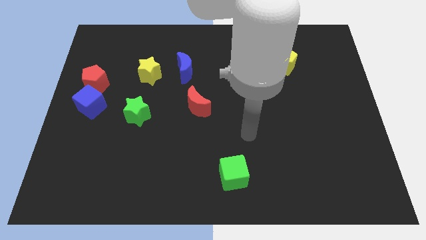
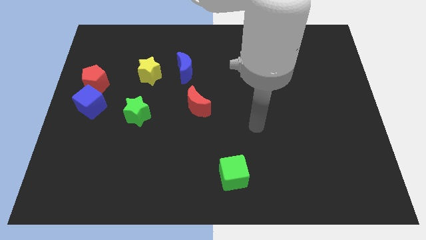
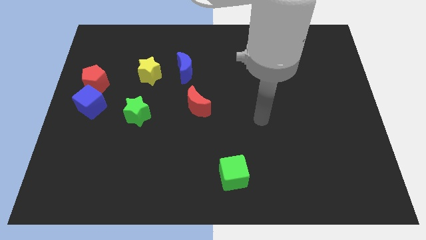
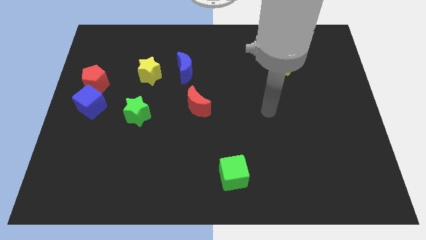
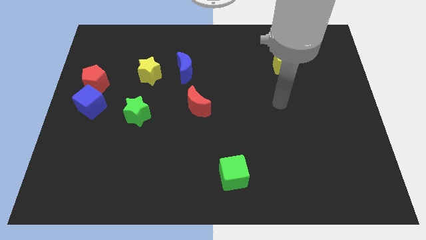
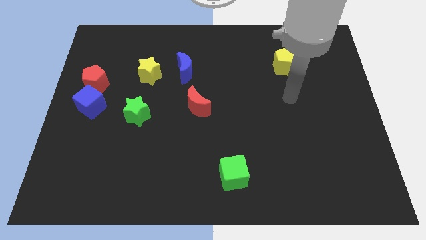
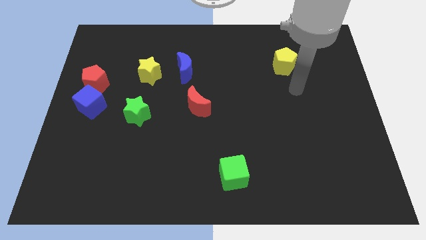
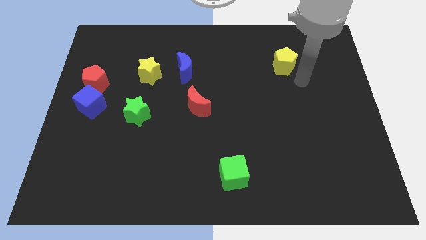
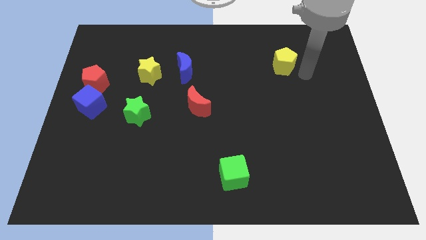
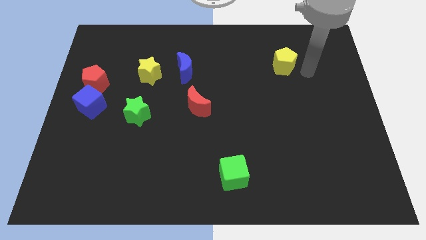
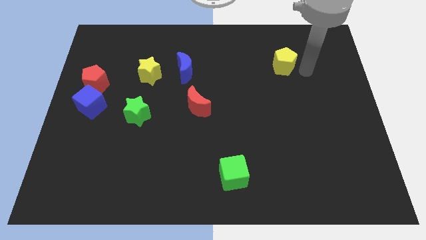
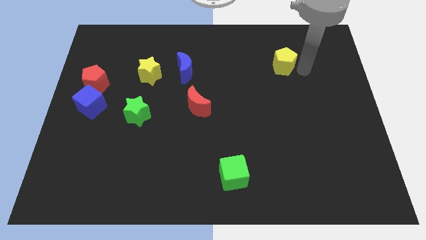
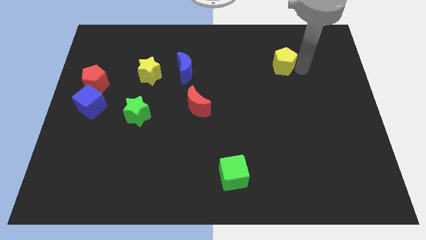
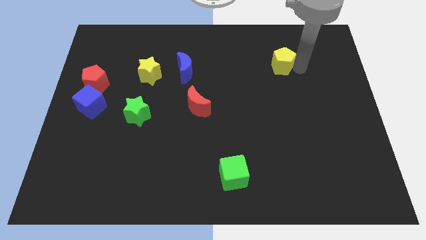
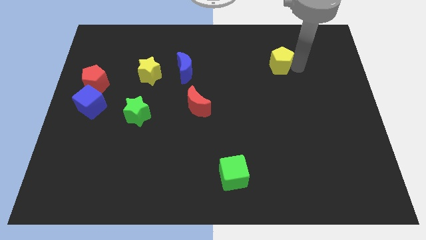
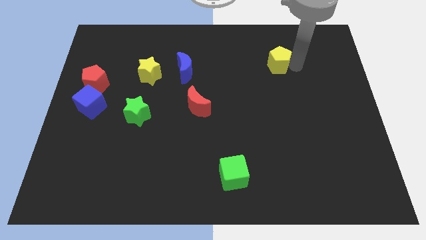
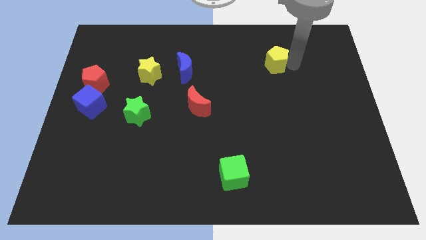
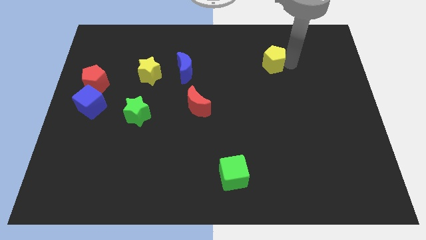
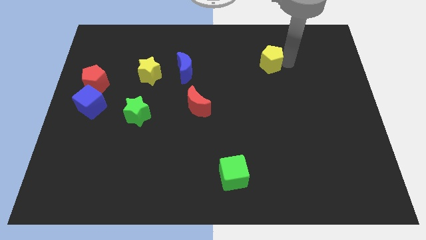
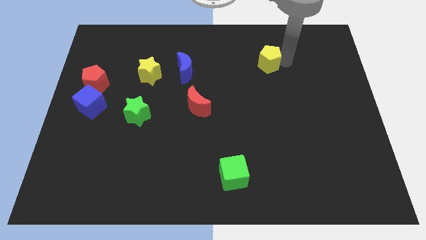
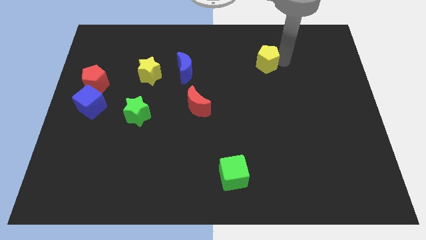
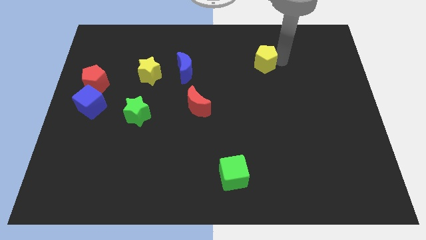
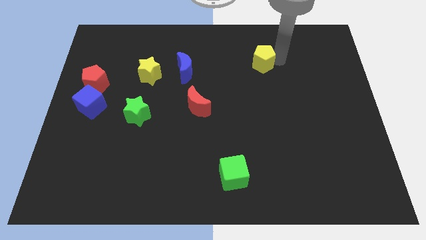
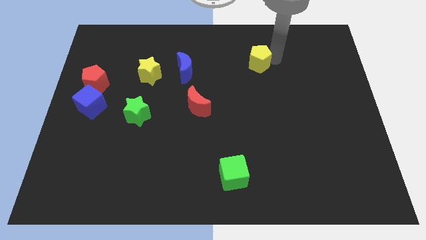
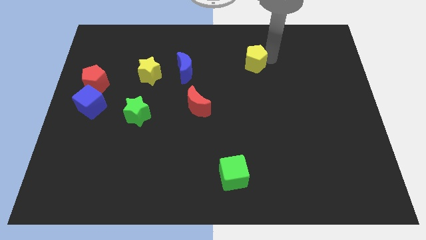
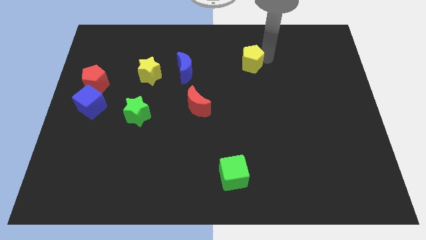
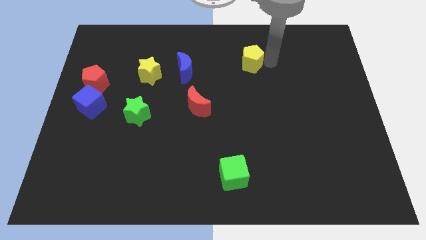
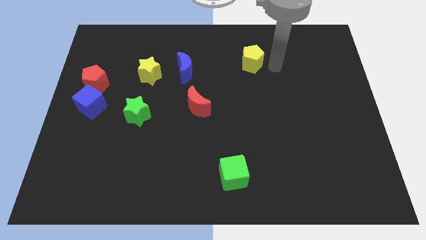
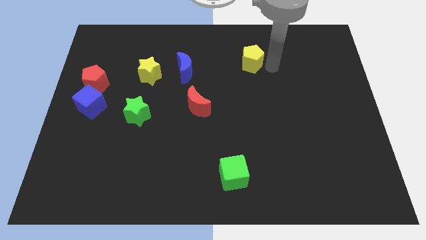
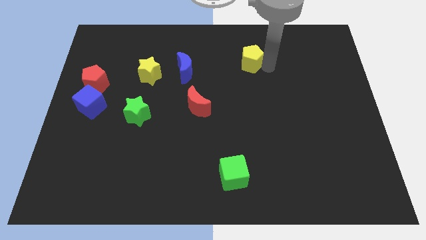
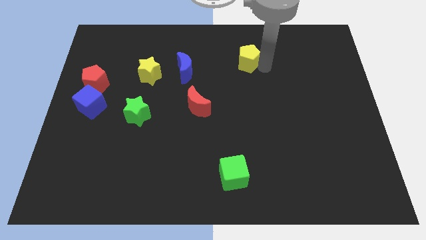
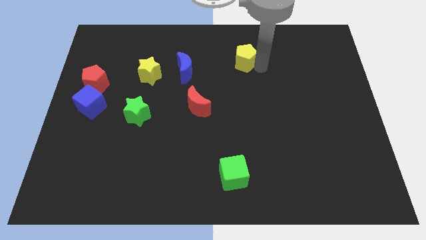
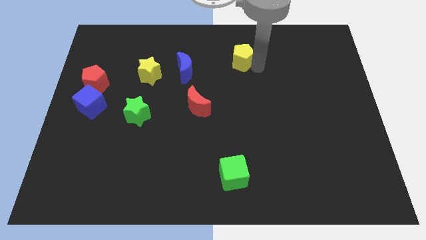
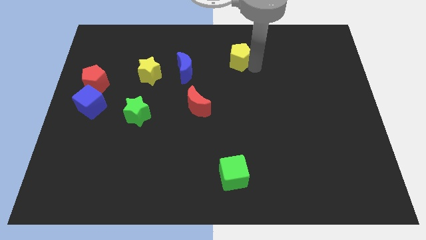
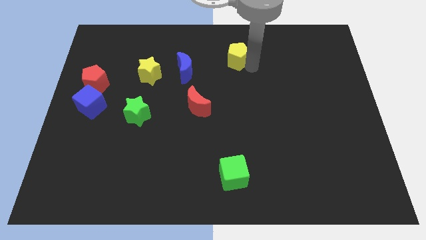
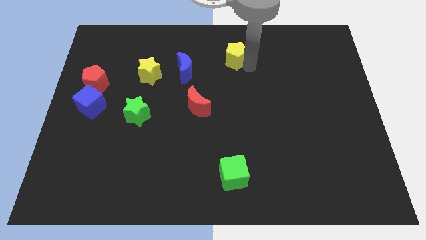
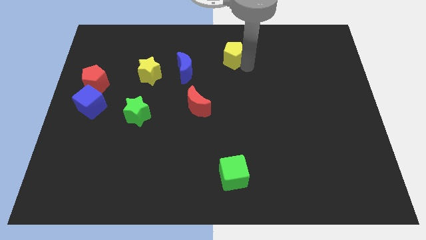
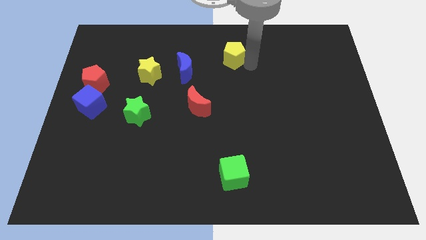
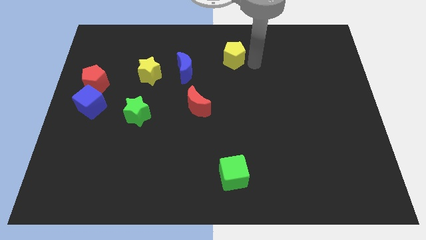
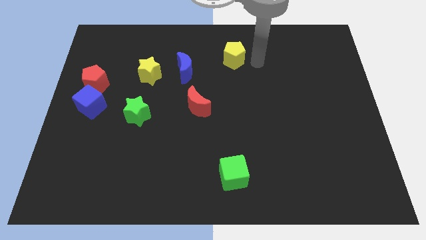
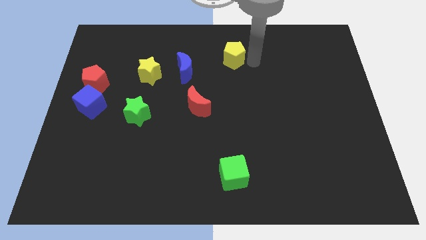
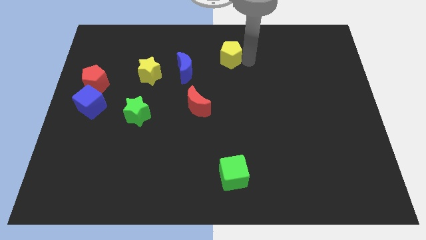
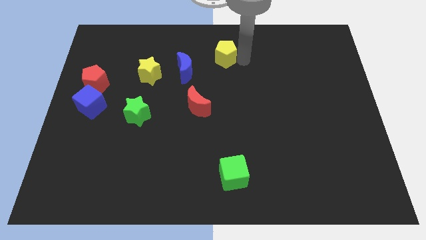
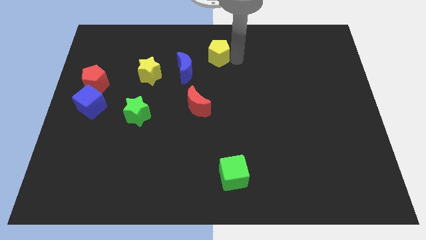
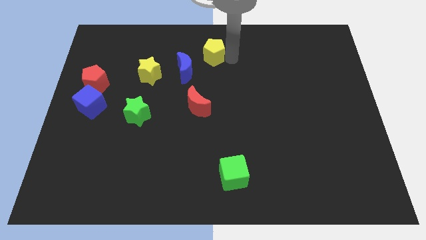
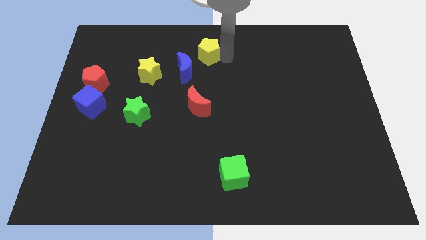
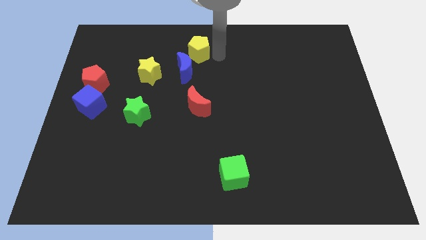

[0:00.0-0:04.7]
push the yellow pentagon left

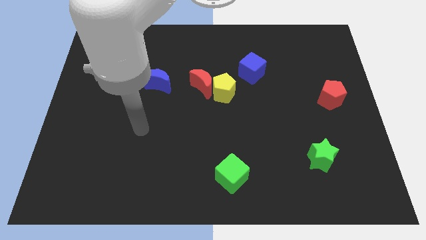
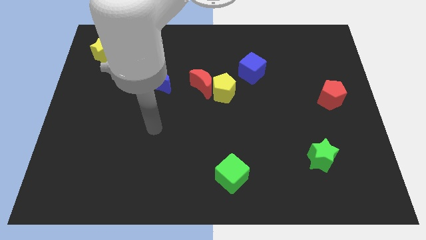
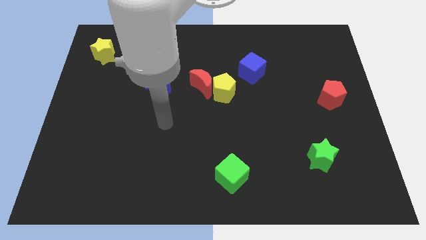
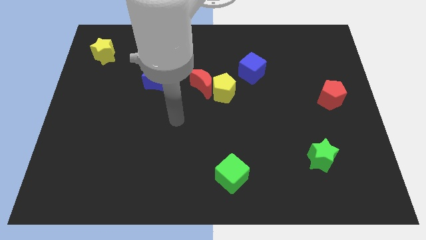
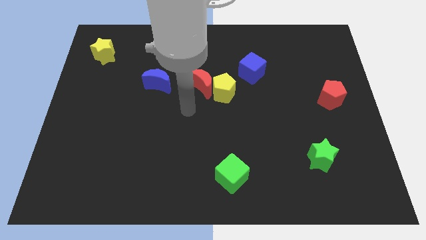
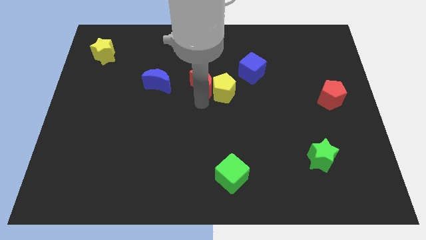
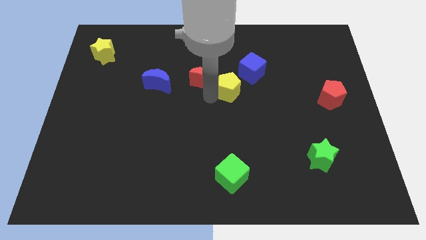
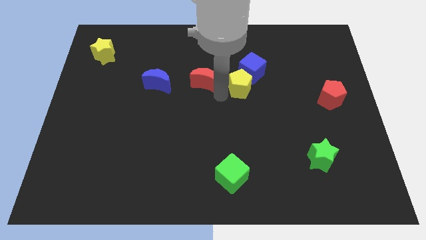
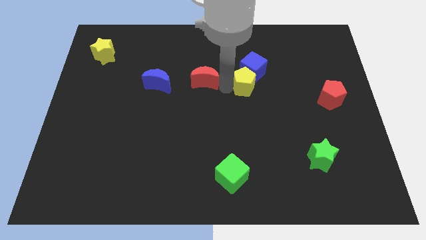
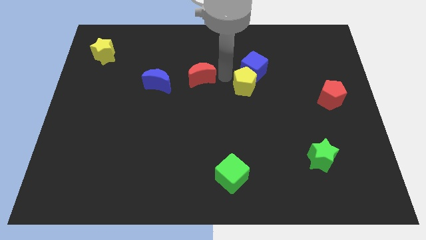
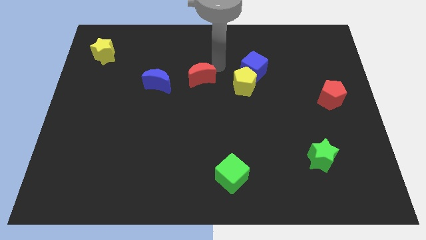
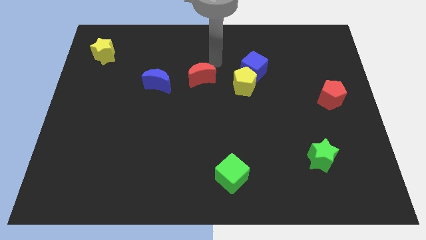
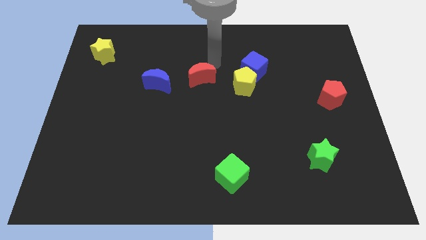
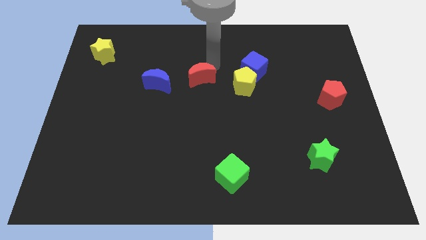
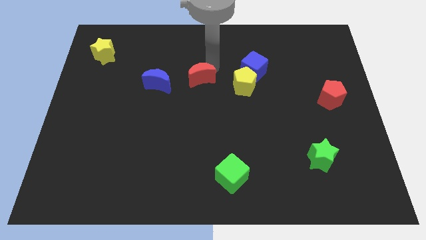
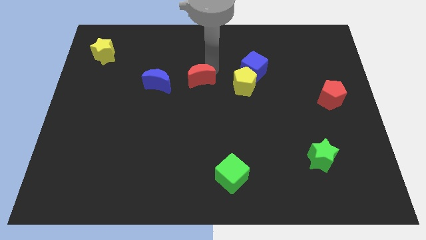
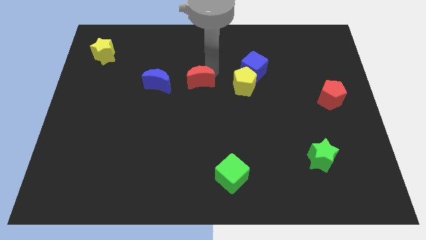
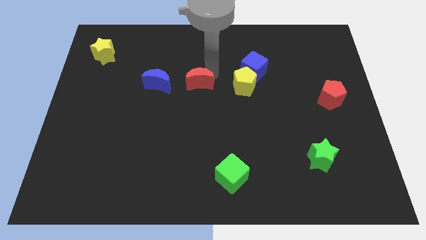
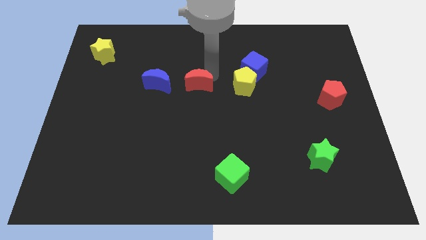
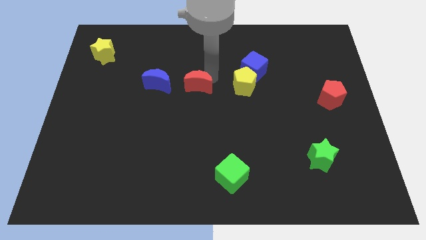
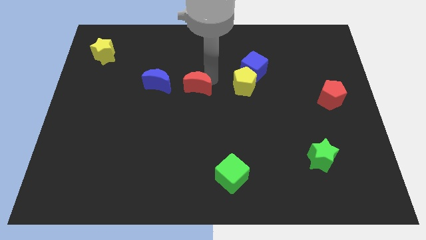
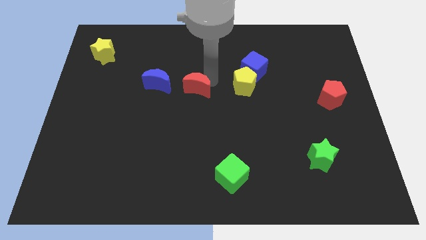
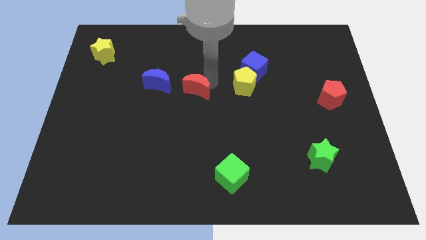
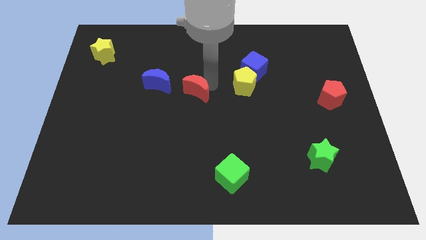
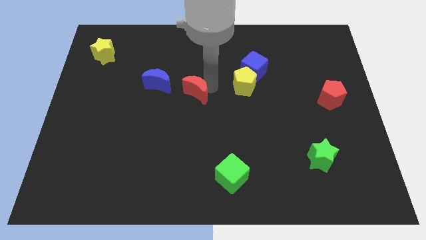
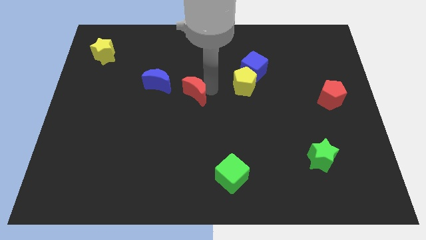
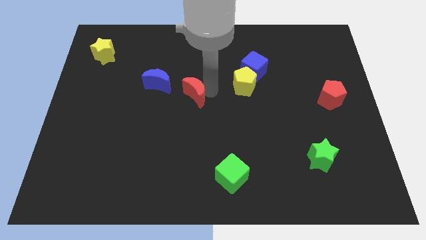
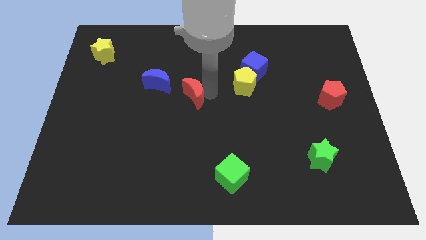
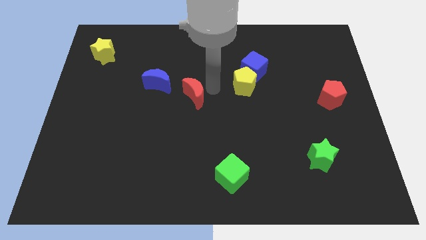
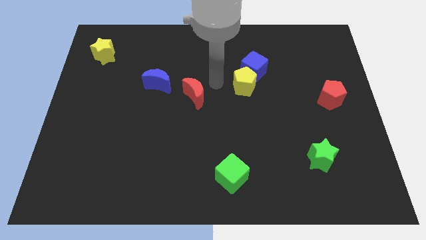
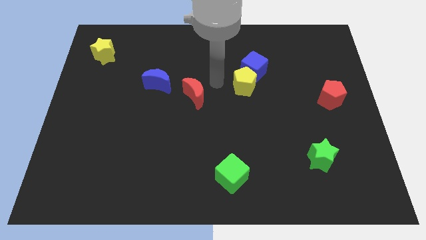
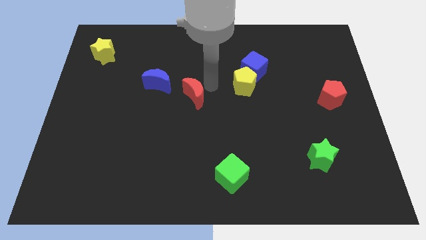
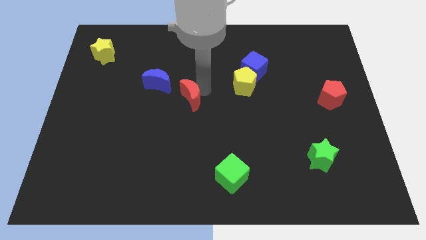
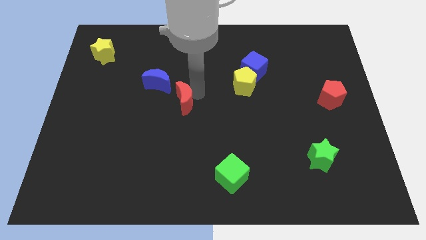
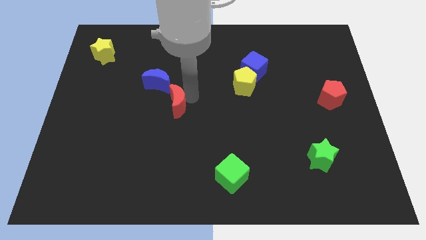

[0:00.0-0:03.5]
slightly push the red moon downwards and to the left diagonally

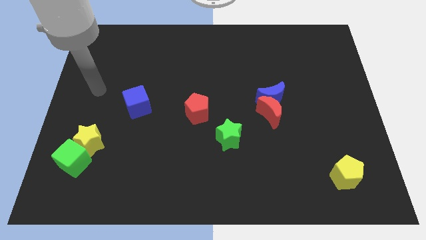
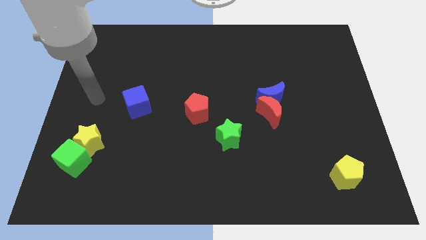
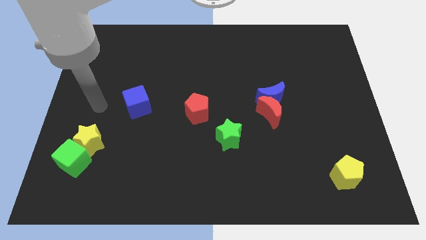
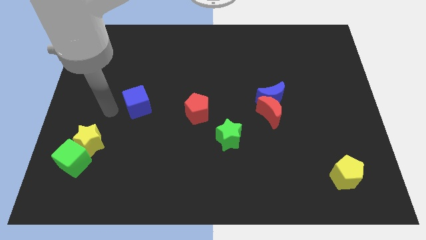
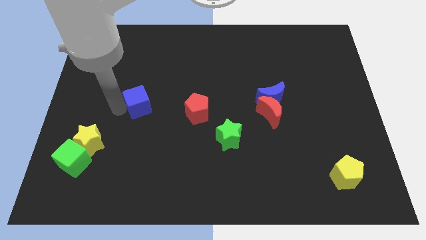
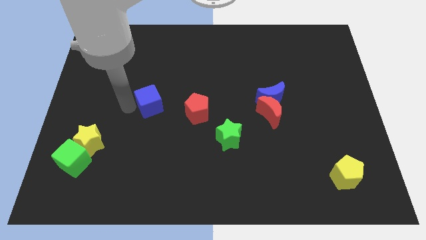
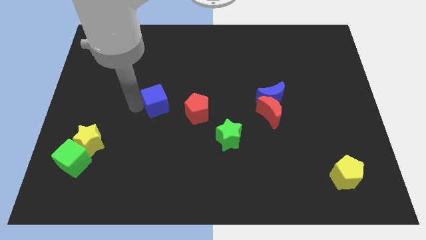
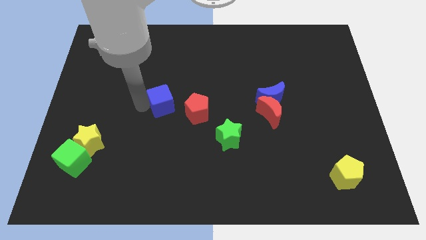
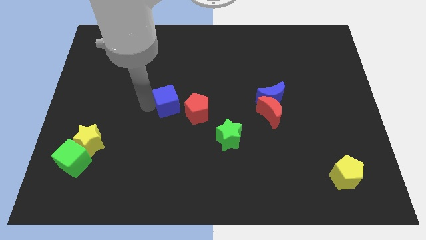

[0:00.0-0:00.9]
move the blue cube a little to the right
